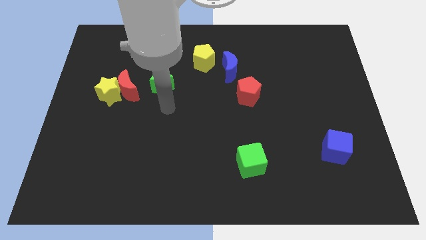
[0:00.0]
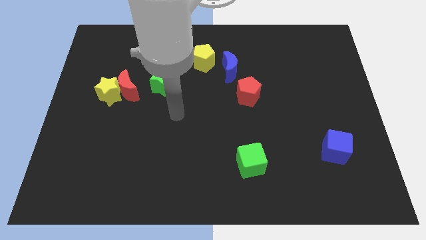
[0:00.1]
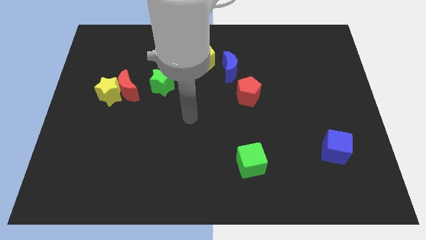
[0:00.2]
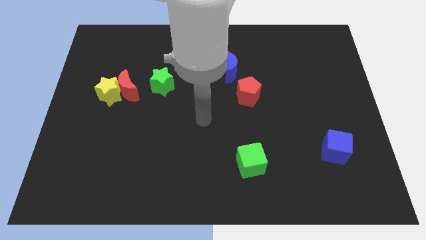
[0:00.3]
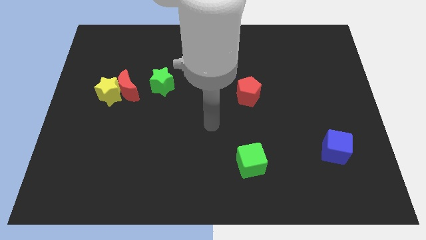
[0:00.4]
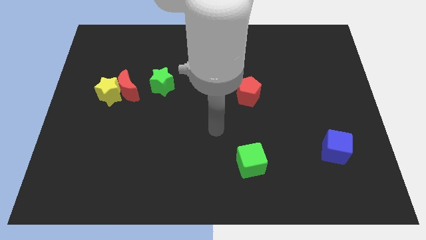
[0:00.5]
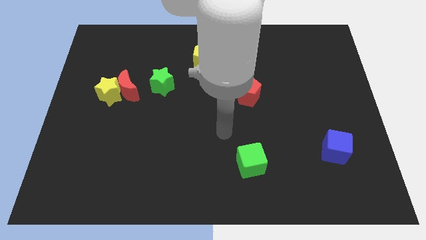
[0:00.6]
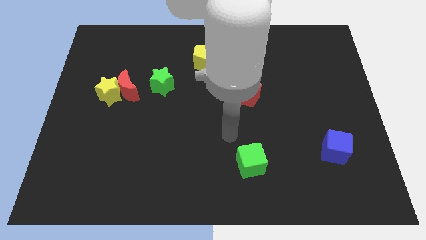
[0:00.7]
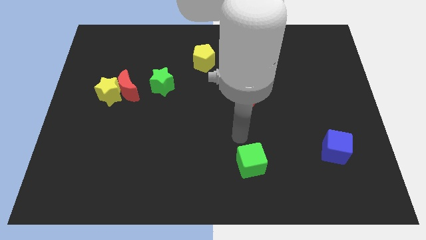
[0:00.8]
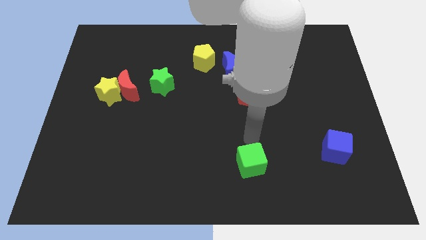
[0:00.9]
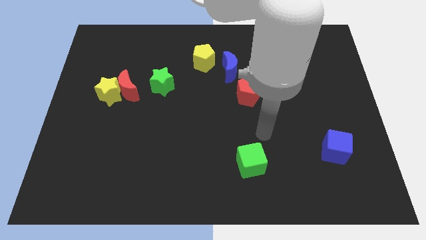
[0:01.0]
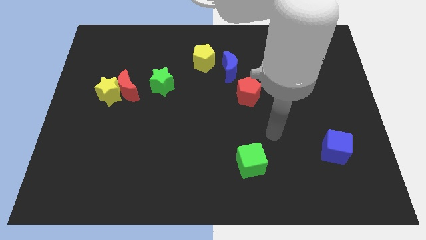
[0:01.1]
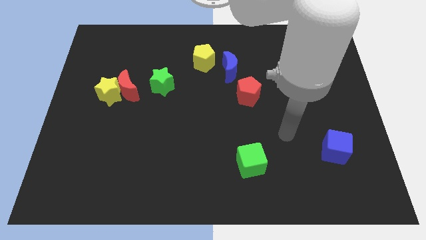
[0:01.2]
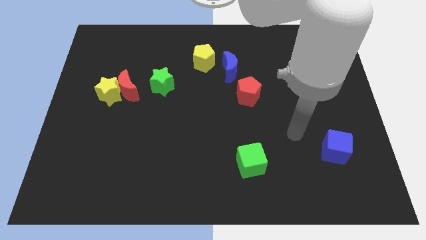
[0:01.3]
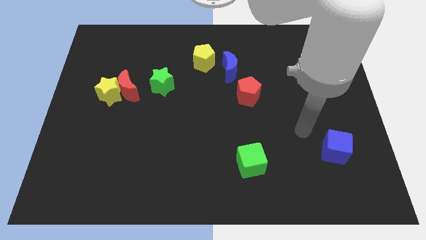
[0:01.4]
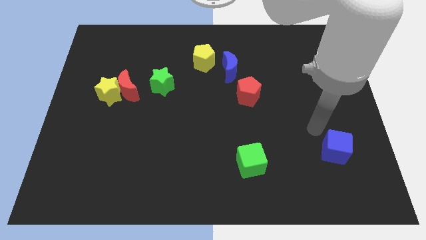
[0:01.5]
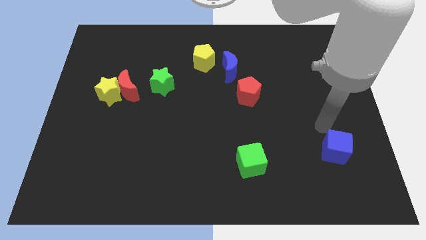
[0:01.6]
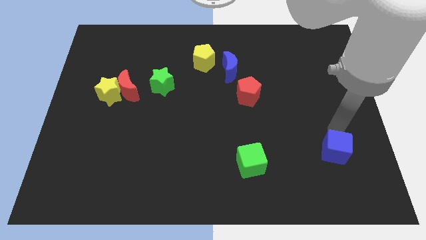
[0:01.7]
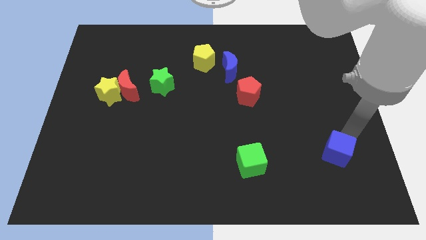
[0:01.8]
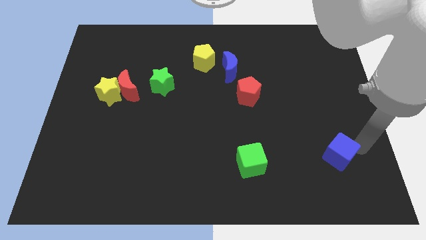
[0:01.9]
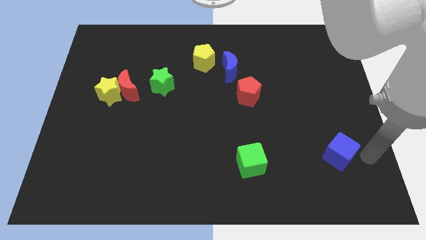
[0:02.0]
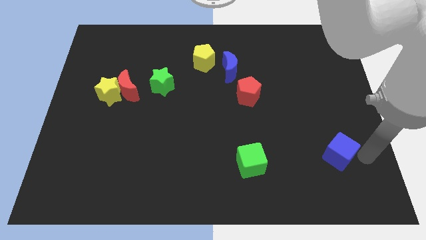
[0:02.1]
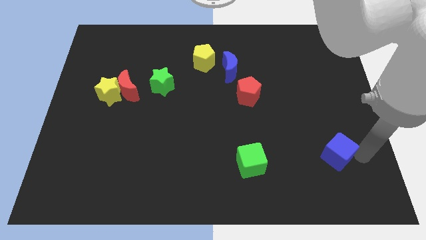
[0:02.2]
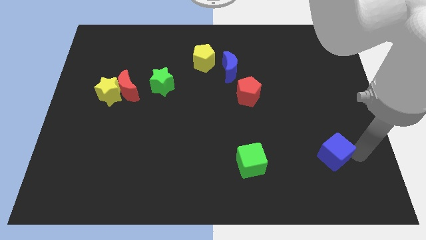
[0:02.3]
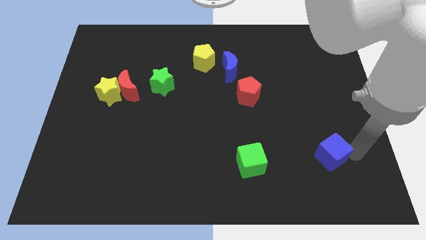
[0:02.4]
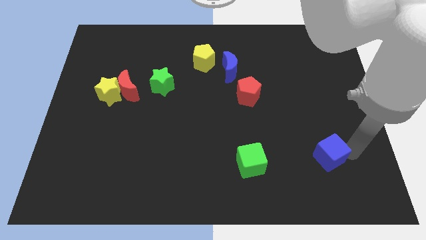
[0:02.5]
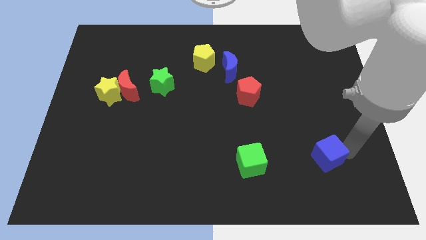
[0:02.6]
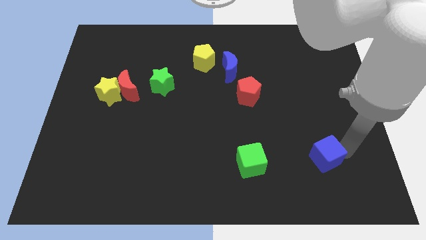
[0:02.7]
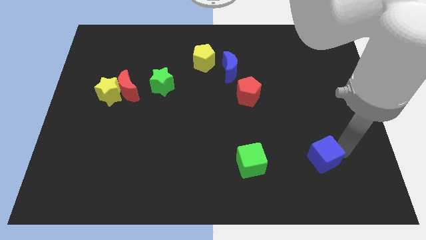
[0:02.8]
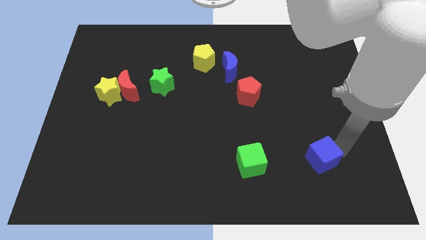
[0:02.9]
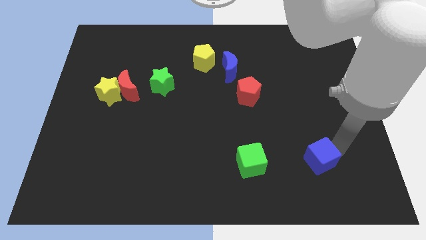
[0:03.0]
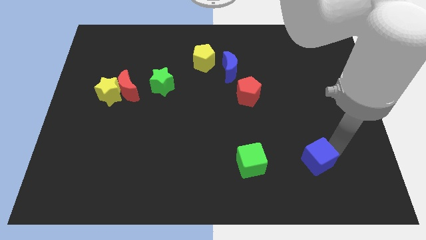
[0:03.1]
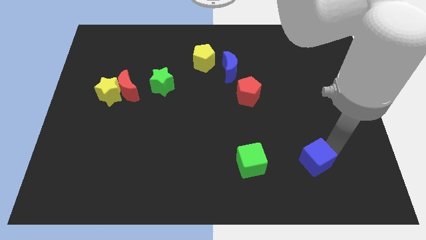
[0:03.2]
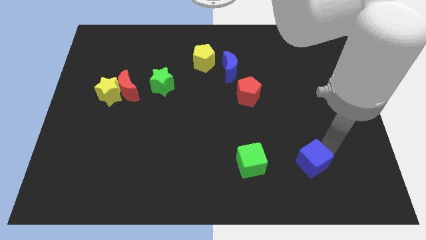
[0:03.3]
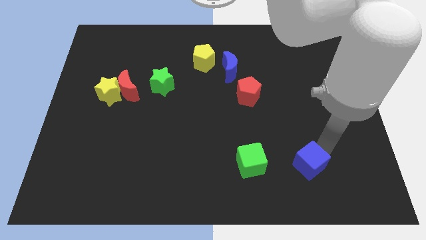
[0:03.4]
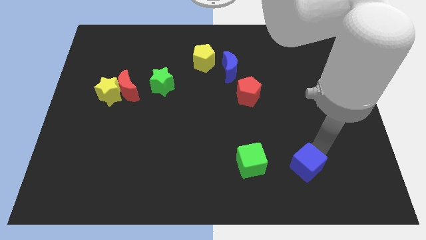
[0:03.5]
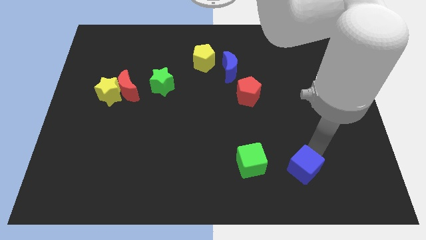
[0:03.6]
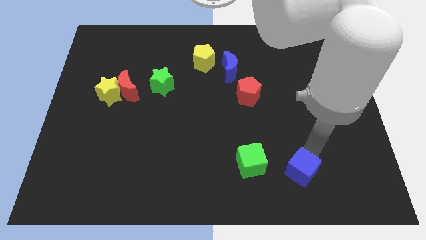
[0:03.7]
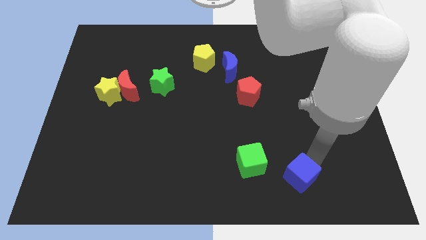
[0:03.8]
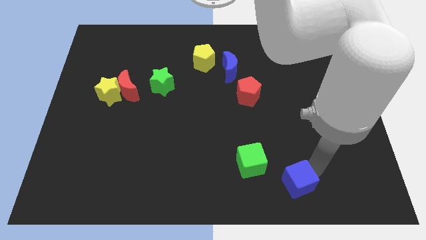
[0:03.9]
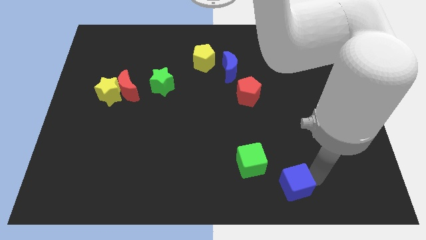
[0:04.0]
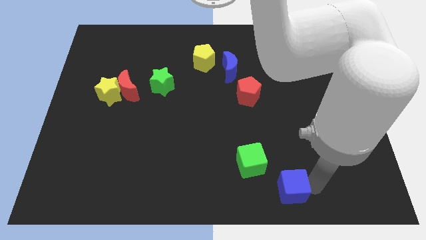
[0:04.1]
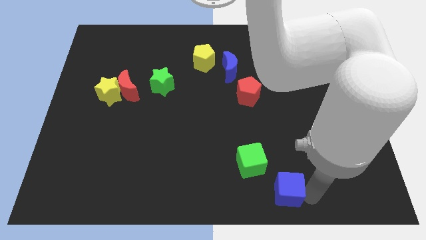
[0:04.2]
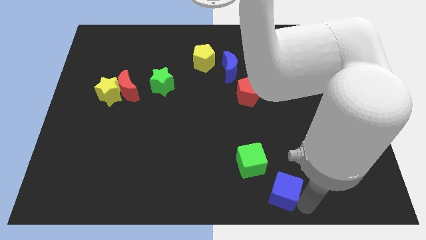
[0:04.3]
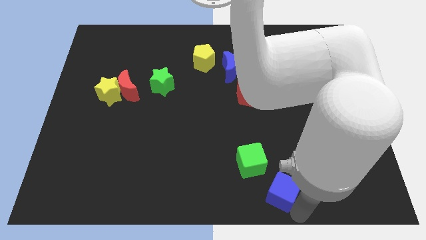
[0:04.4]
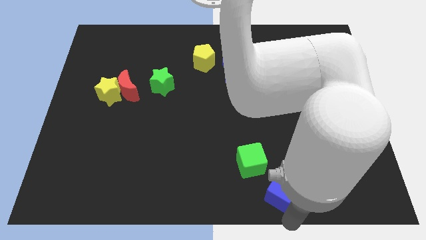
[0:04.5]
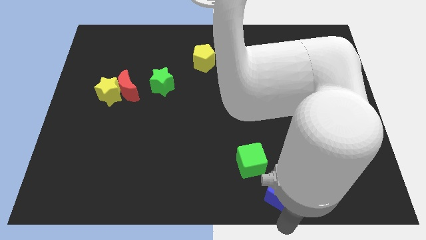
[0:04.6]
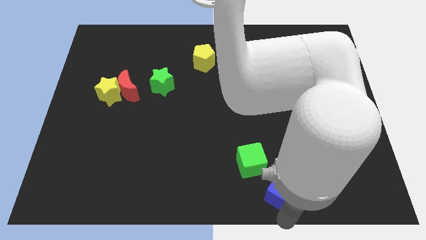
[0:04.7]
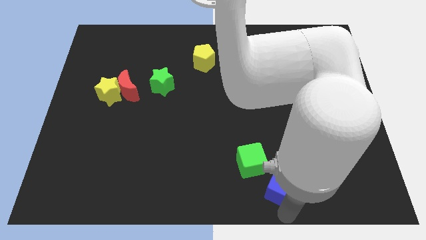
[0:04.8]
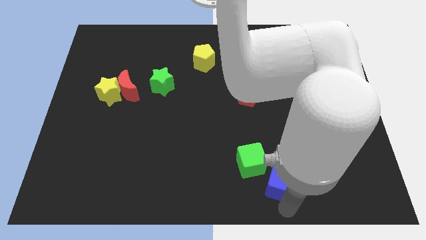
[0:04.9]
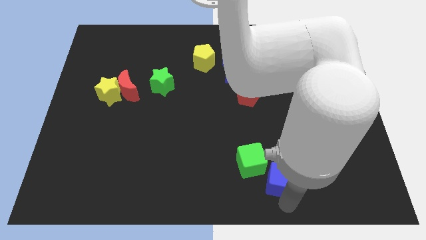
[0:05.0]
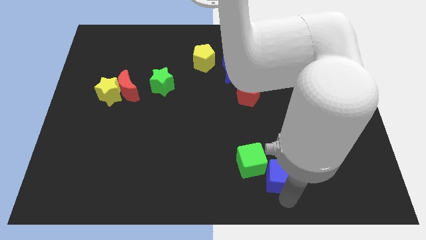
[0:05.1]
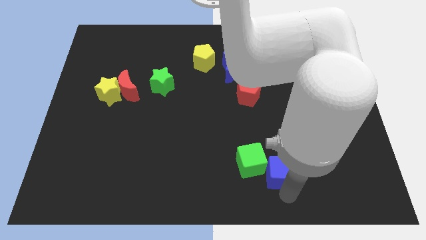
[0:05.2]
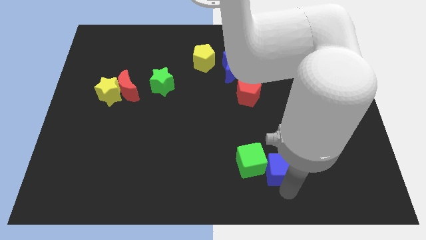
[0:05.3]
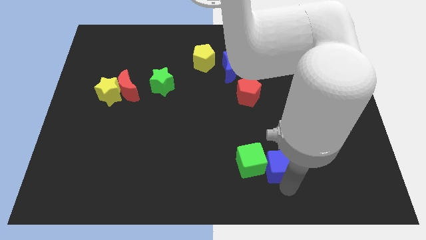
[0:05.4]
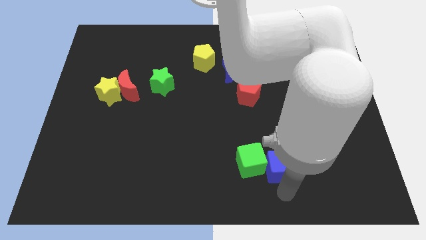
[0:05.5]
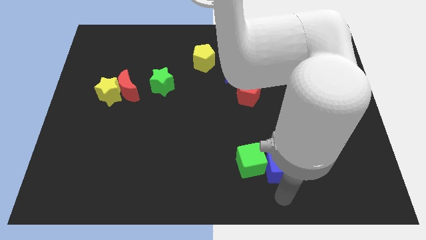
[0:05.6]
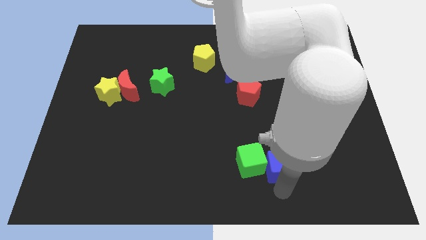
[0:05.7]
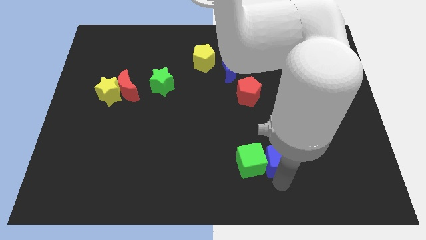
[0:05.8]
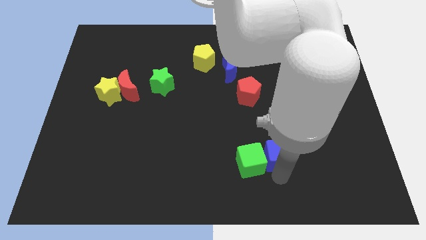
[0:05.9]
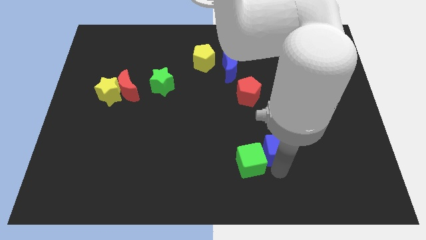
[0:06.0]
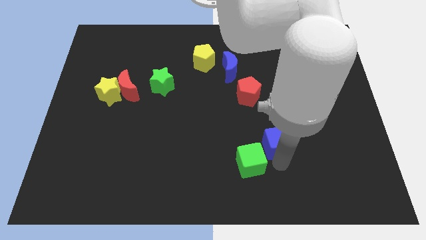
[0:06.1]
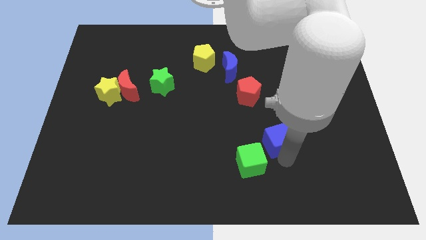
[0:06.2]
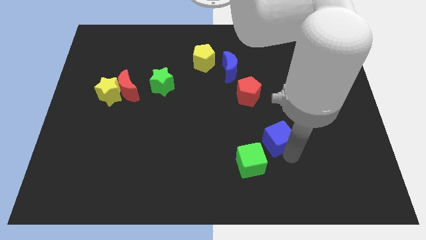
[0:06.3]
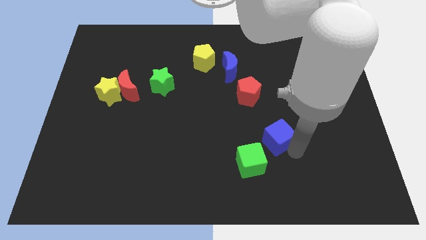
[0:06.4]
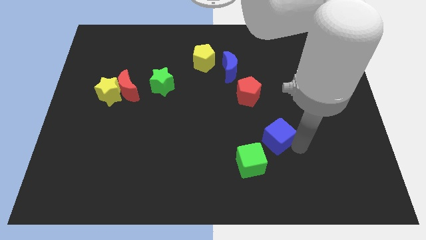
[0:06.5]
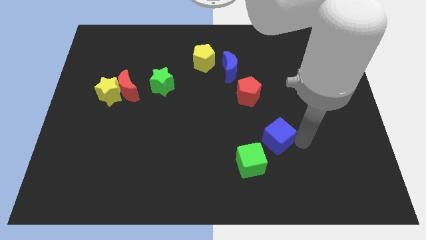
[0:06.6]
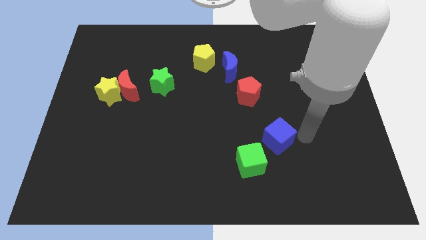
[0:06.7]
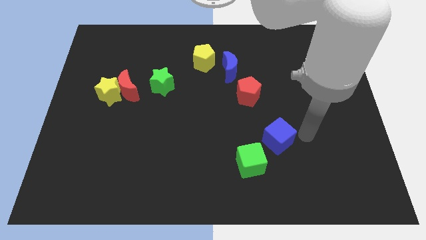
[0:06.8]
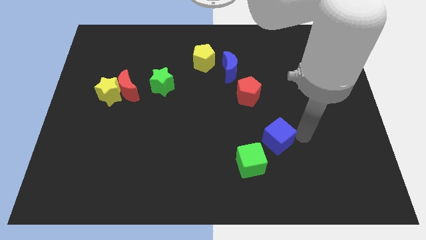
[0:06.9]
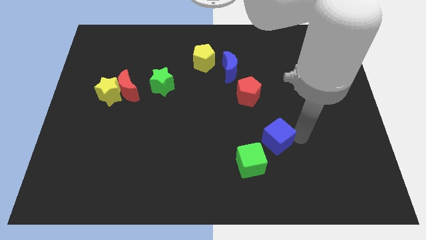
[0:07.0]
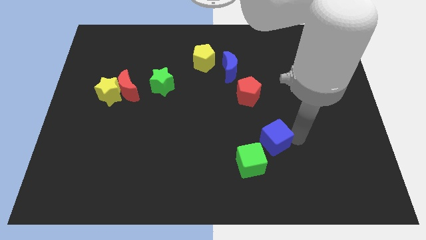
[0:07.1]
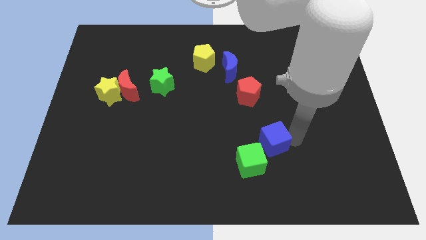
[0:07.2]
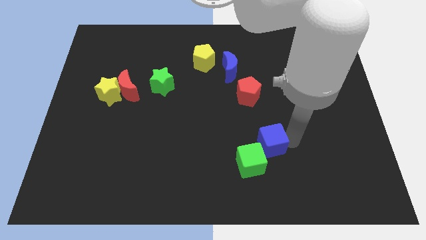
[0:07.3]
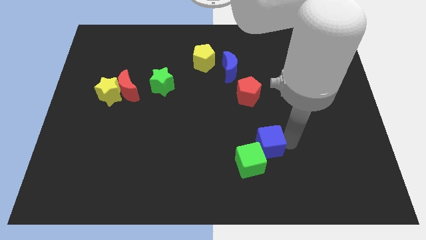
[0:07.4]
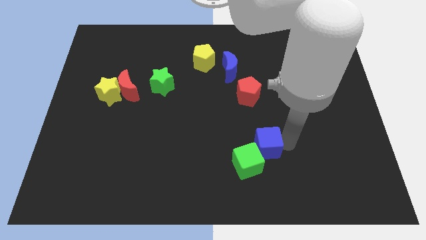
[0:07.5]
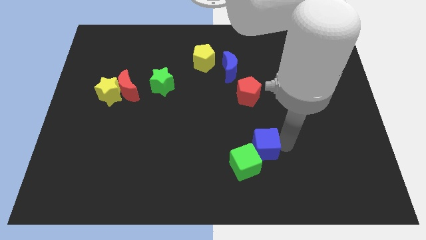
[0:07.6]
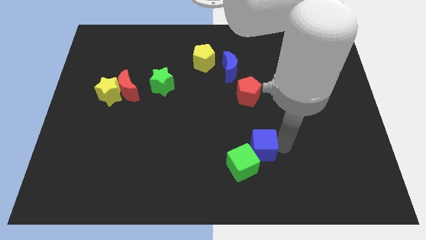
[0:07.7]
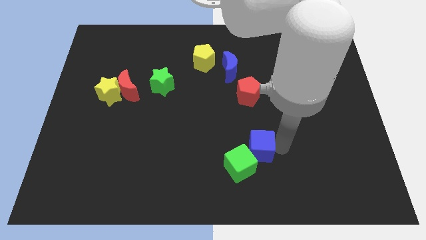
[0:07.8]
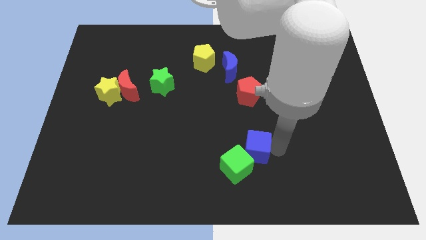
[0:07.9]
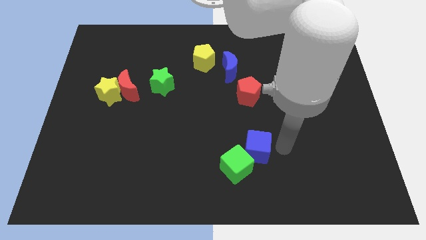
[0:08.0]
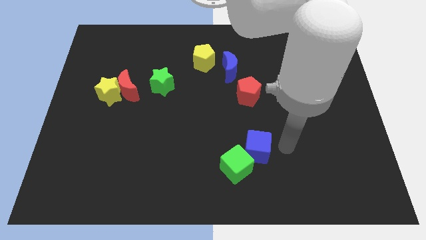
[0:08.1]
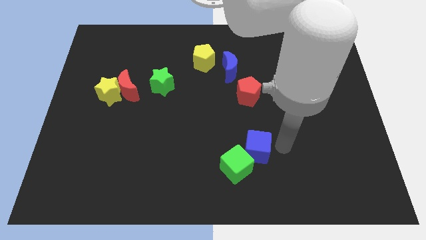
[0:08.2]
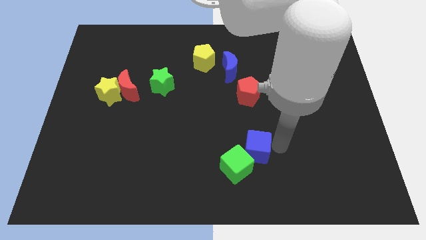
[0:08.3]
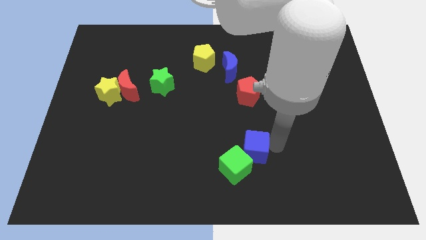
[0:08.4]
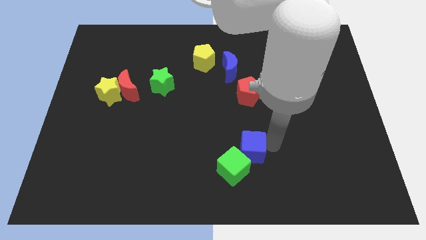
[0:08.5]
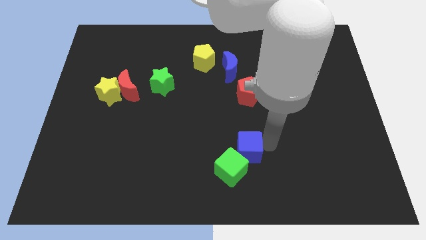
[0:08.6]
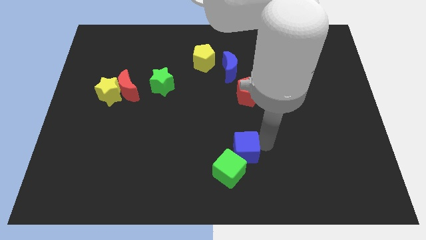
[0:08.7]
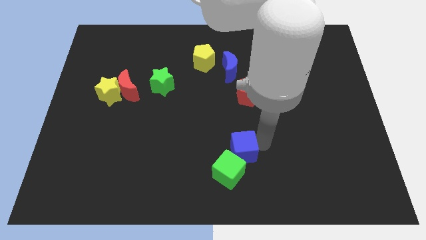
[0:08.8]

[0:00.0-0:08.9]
slide the blue cube to the left
